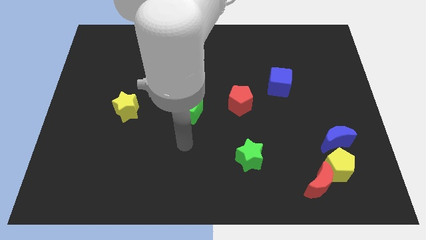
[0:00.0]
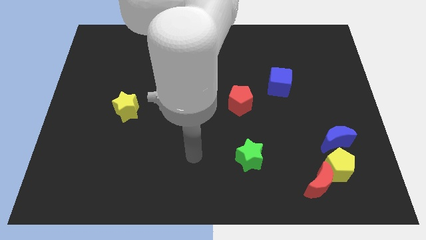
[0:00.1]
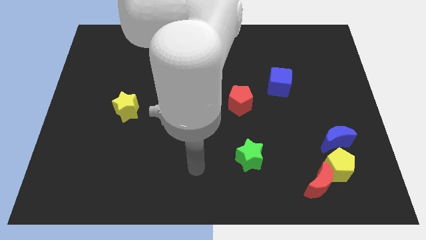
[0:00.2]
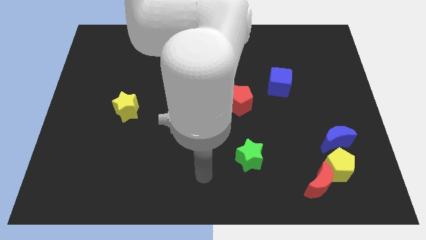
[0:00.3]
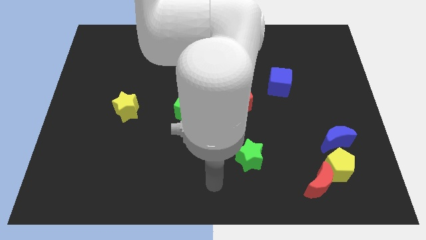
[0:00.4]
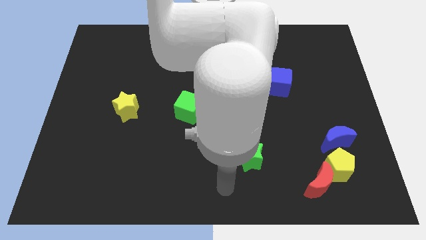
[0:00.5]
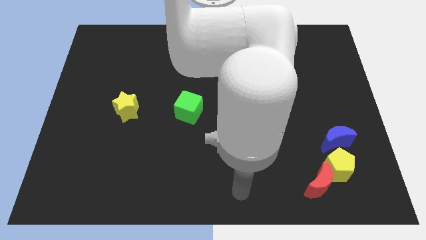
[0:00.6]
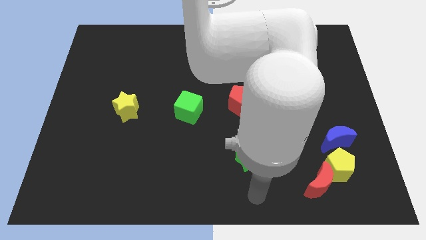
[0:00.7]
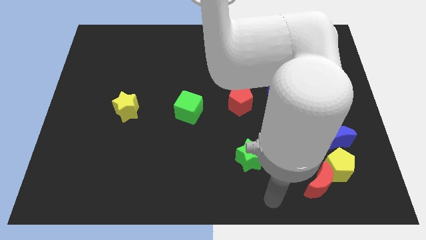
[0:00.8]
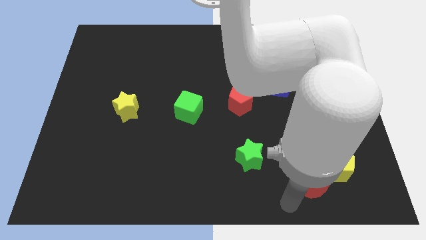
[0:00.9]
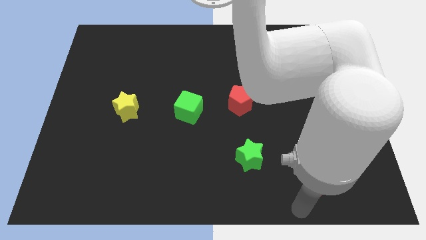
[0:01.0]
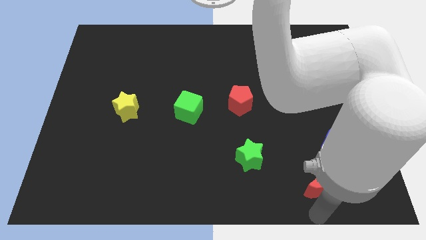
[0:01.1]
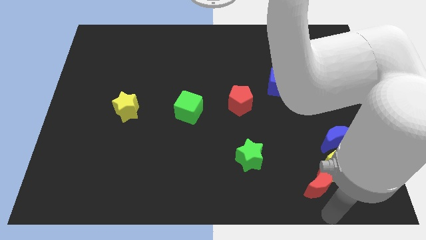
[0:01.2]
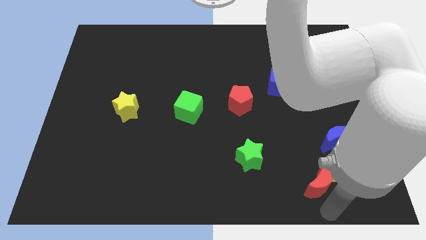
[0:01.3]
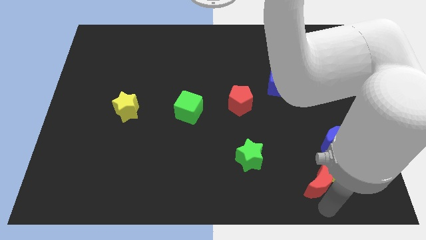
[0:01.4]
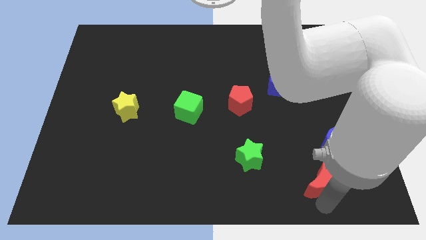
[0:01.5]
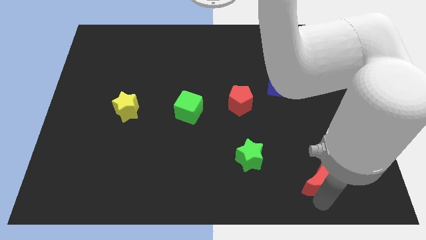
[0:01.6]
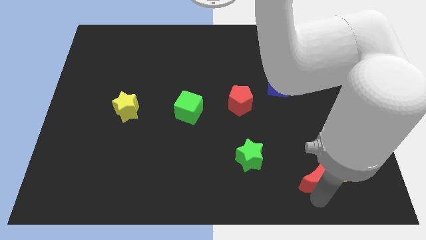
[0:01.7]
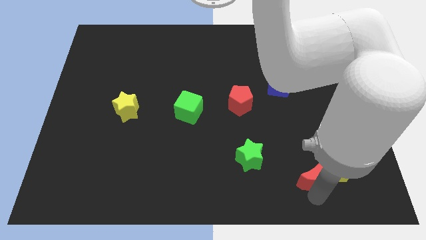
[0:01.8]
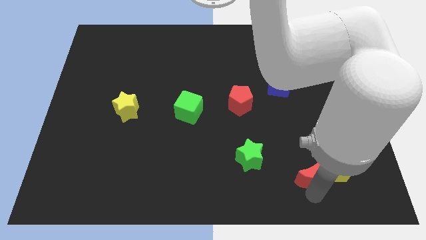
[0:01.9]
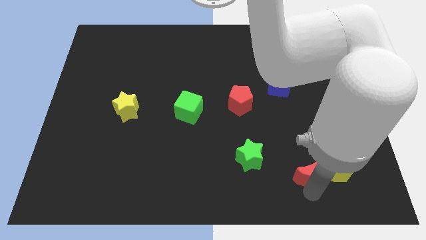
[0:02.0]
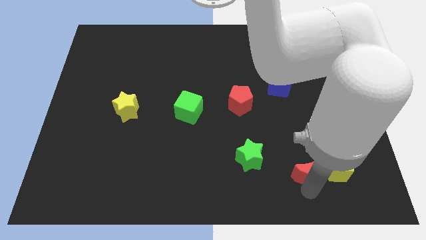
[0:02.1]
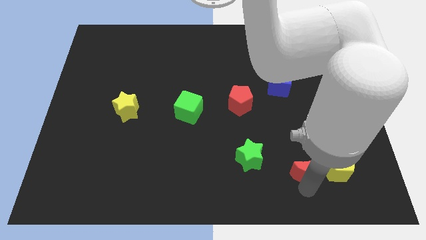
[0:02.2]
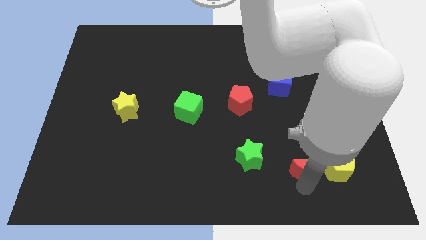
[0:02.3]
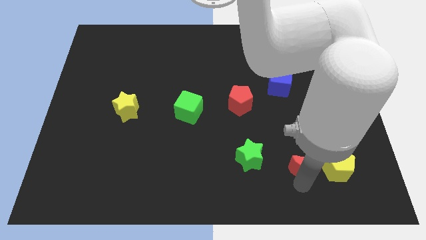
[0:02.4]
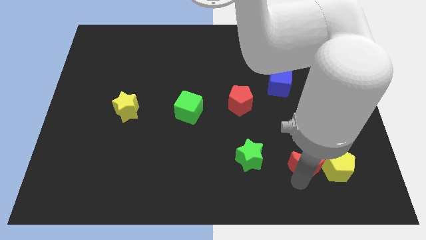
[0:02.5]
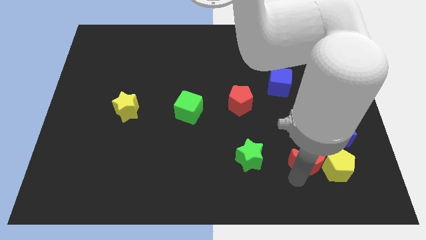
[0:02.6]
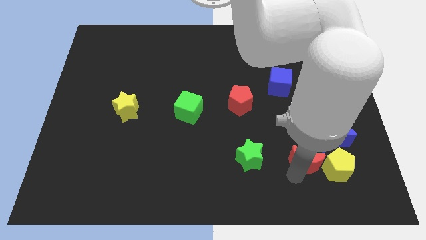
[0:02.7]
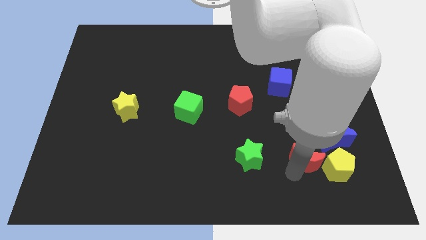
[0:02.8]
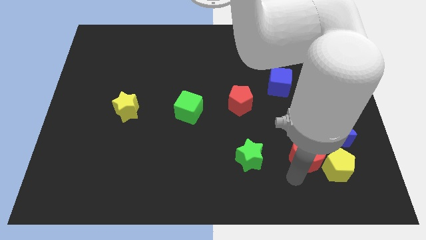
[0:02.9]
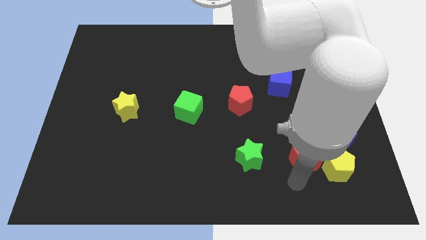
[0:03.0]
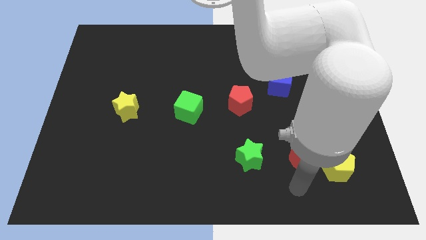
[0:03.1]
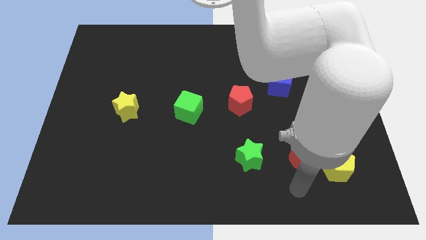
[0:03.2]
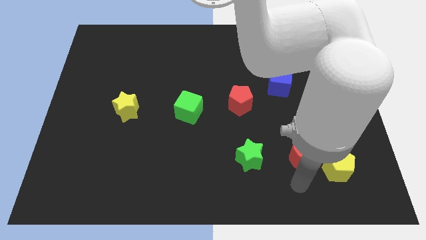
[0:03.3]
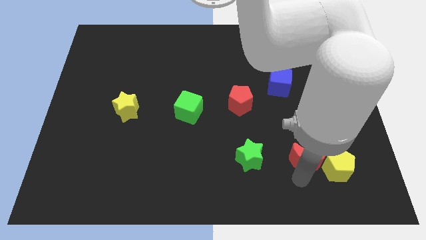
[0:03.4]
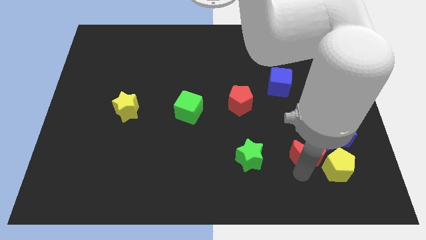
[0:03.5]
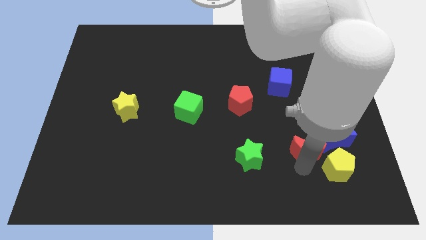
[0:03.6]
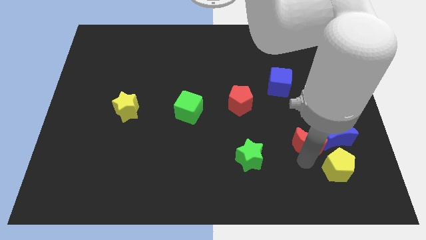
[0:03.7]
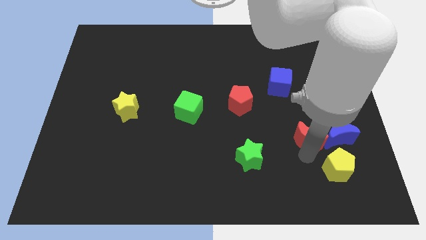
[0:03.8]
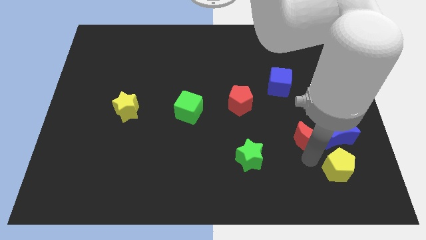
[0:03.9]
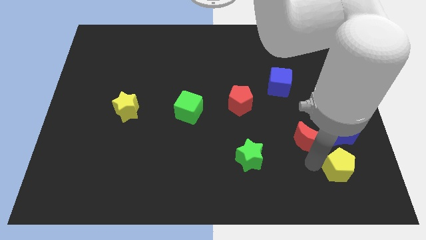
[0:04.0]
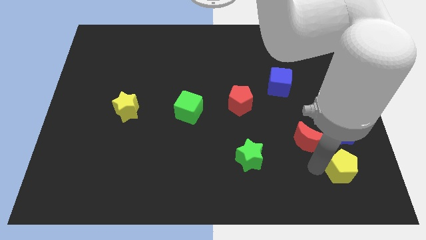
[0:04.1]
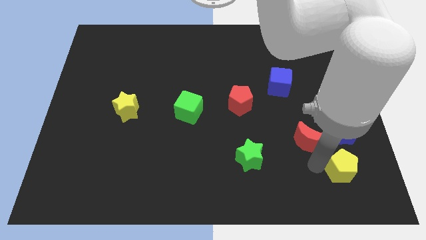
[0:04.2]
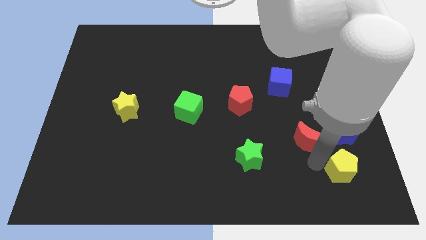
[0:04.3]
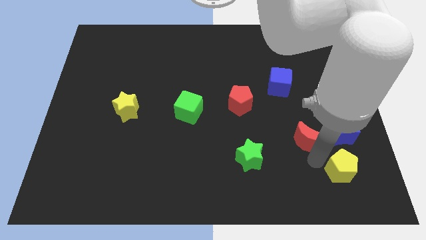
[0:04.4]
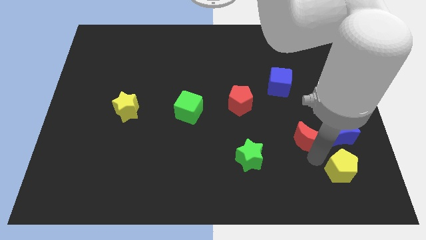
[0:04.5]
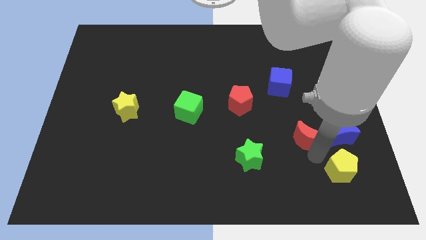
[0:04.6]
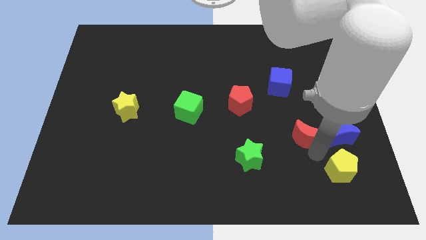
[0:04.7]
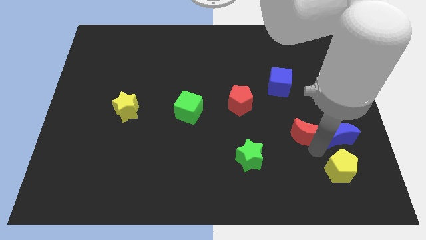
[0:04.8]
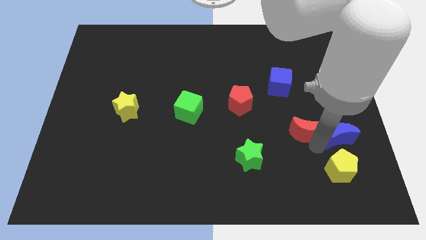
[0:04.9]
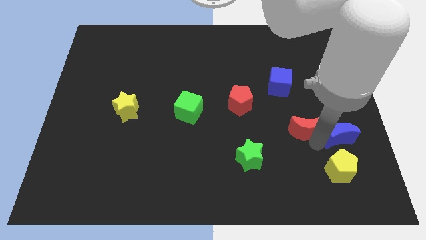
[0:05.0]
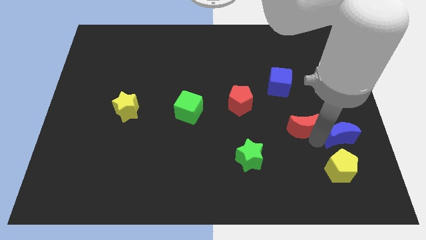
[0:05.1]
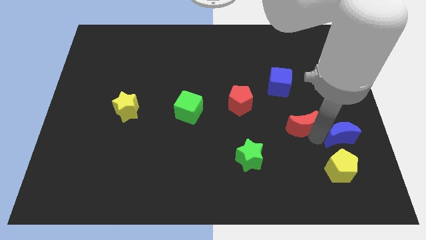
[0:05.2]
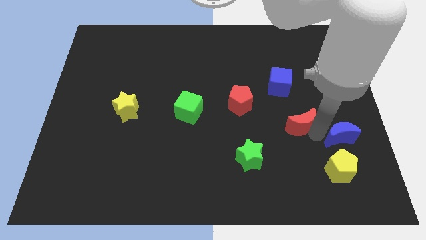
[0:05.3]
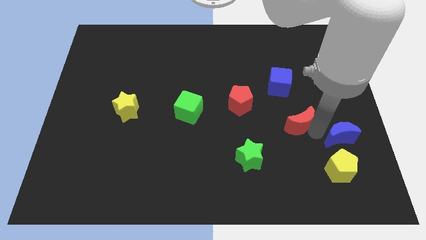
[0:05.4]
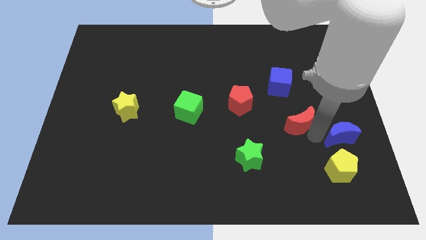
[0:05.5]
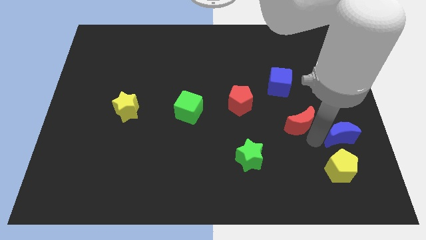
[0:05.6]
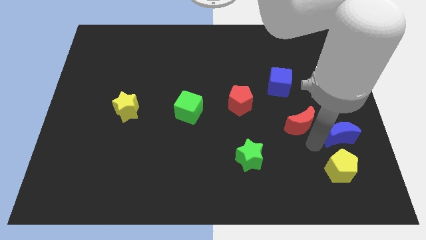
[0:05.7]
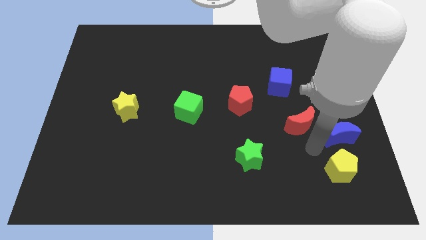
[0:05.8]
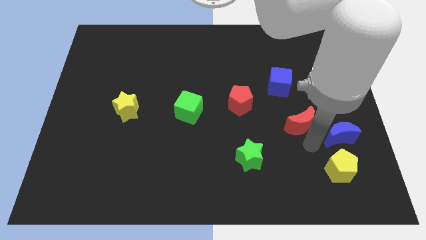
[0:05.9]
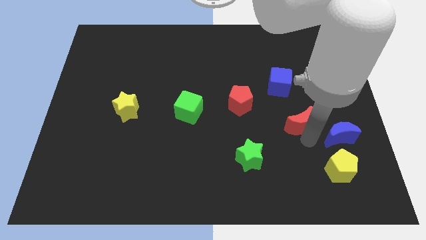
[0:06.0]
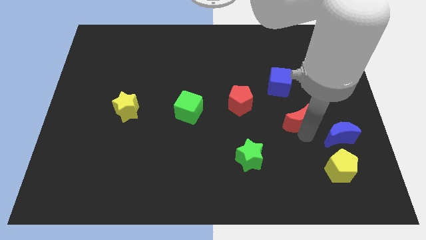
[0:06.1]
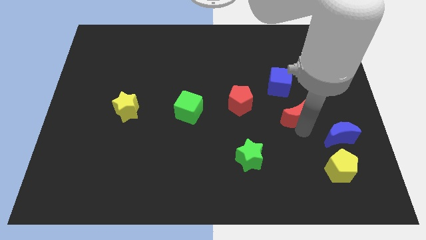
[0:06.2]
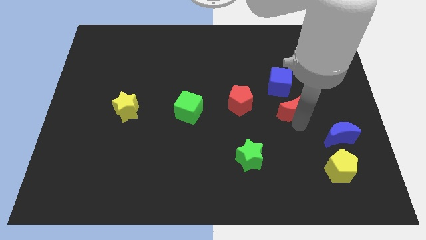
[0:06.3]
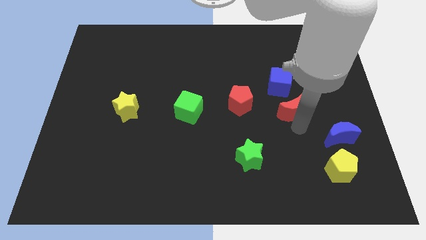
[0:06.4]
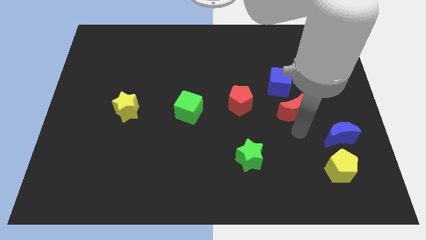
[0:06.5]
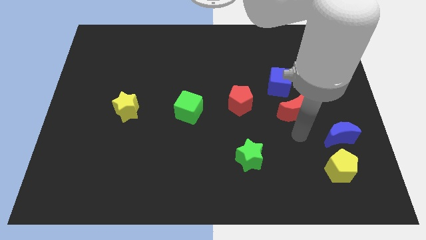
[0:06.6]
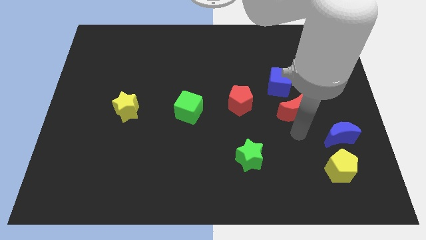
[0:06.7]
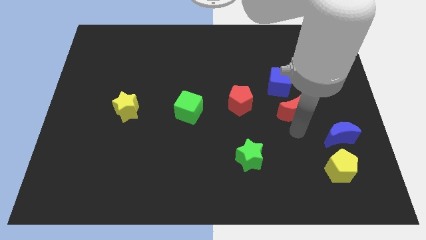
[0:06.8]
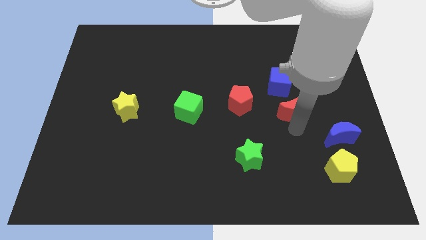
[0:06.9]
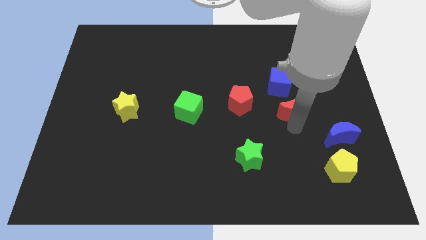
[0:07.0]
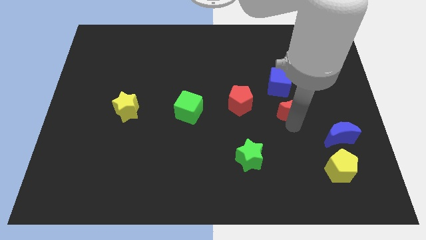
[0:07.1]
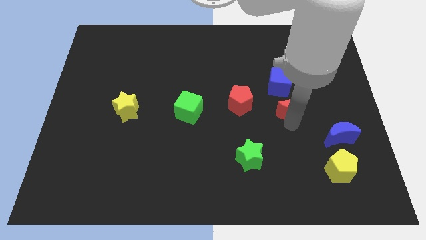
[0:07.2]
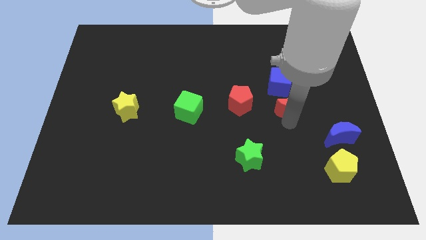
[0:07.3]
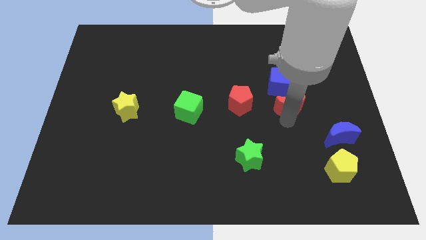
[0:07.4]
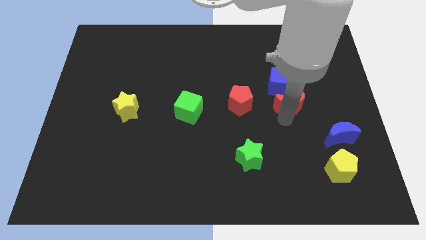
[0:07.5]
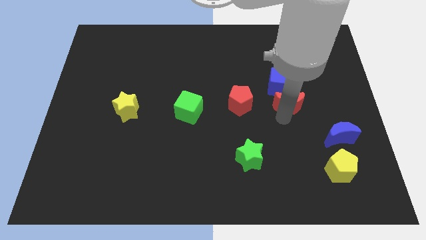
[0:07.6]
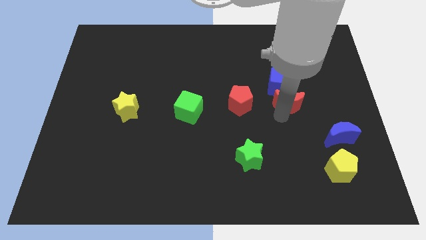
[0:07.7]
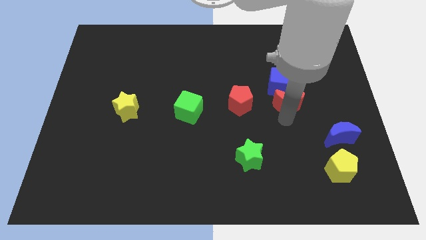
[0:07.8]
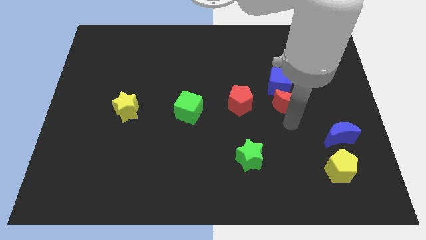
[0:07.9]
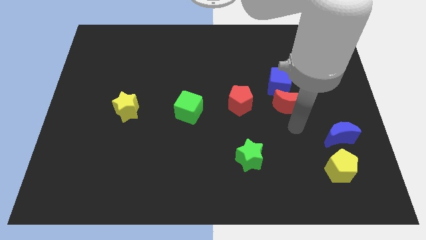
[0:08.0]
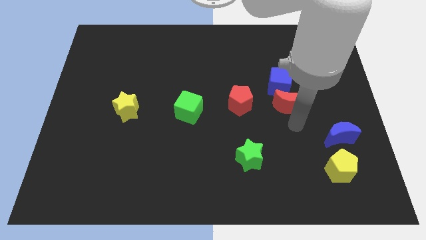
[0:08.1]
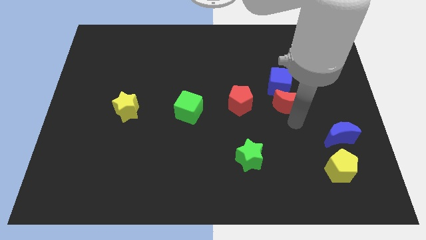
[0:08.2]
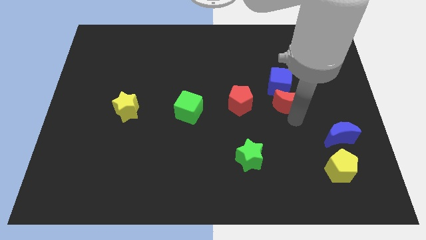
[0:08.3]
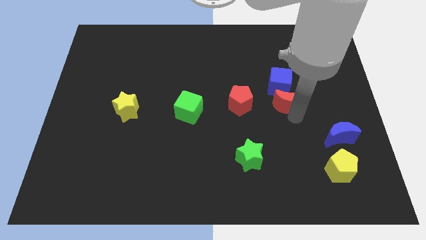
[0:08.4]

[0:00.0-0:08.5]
put the red moon next to the blue cube
